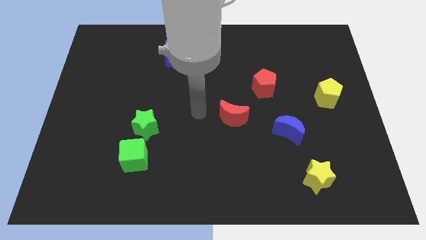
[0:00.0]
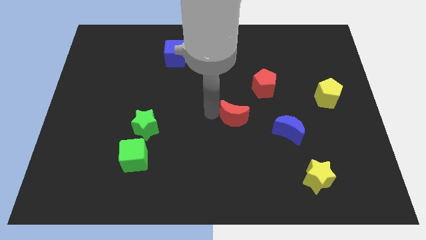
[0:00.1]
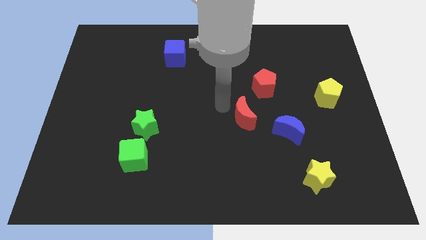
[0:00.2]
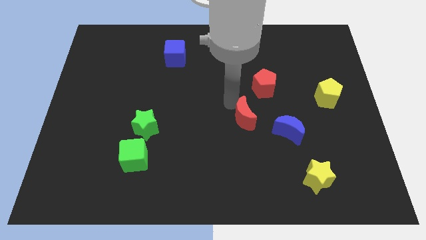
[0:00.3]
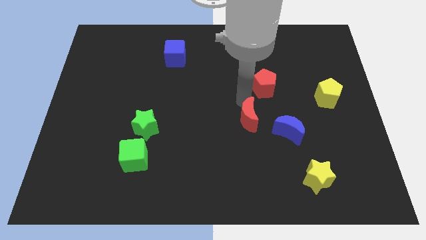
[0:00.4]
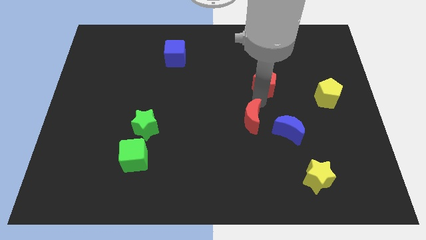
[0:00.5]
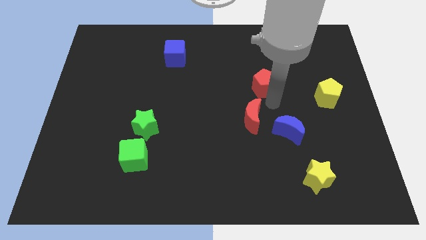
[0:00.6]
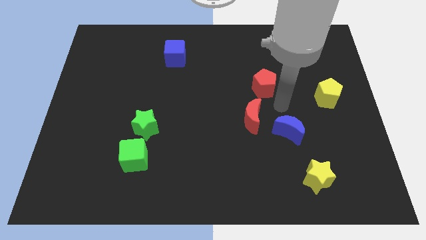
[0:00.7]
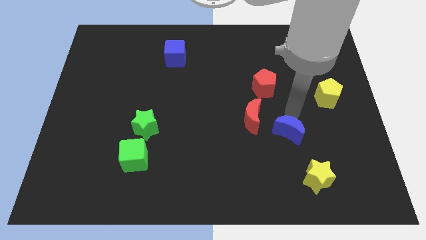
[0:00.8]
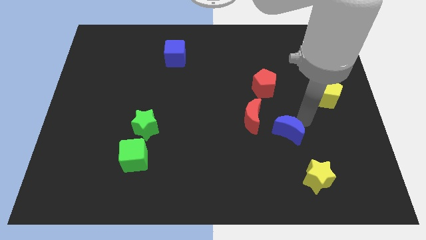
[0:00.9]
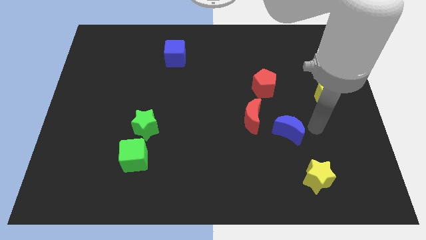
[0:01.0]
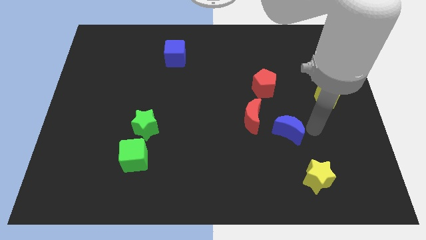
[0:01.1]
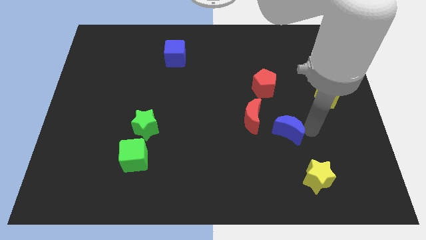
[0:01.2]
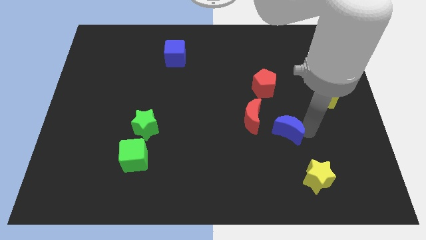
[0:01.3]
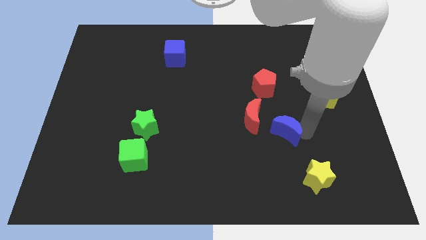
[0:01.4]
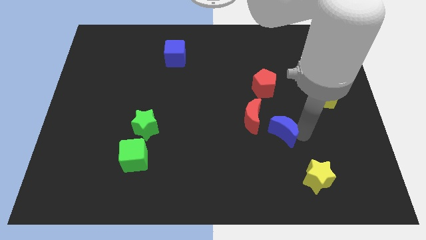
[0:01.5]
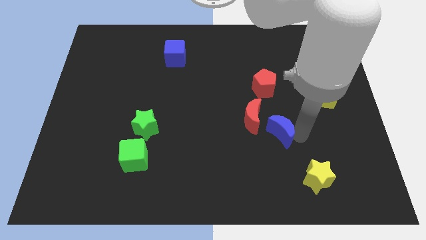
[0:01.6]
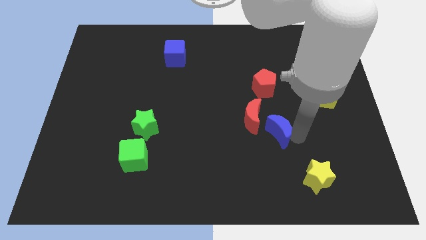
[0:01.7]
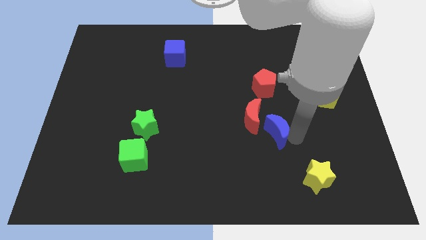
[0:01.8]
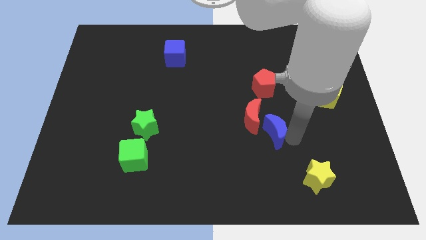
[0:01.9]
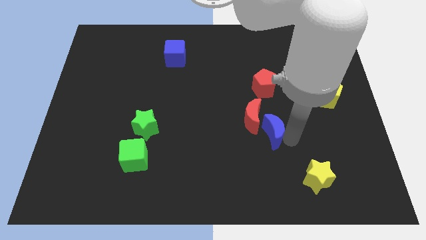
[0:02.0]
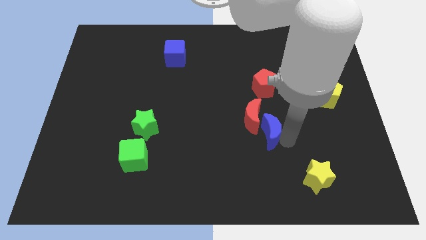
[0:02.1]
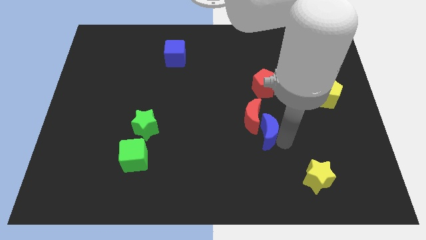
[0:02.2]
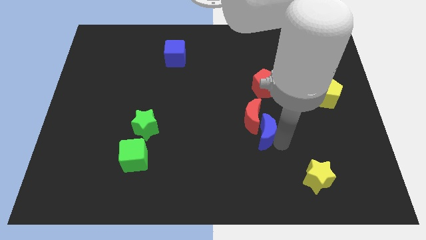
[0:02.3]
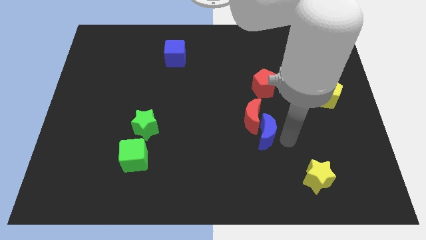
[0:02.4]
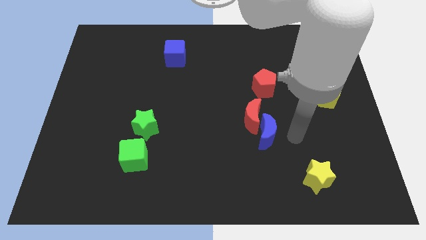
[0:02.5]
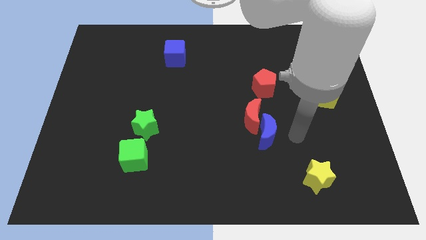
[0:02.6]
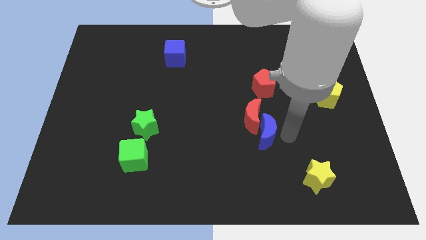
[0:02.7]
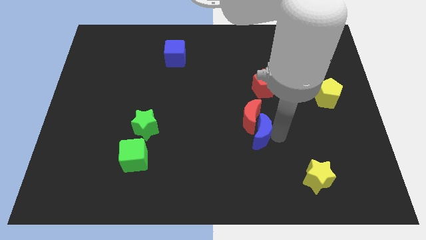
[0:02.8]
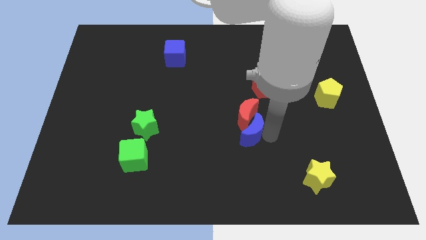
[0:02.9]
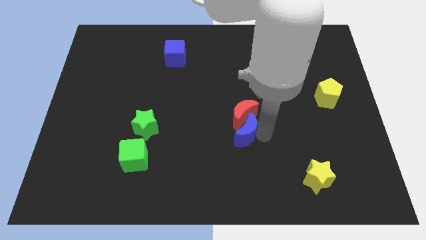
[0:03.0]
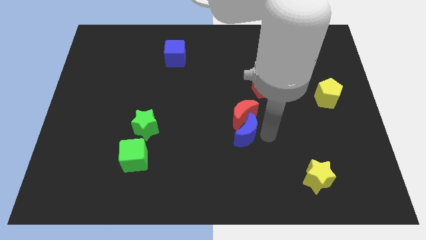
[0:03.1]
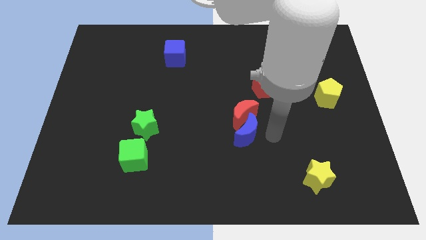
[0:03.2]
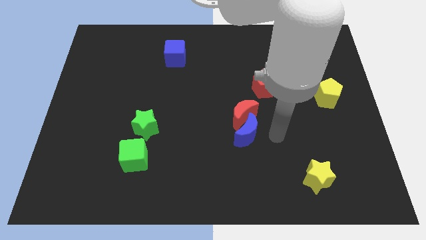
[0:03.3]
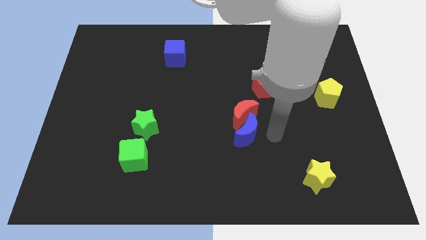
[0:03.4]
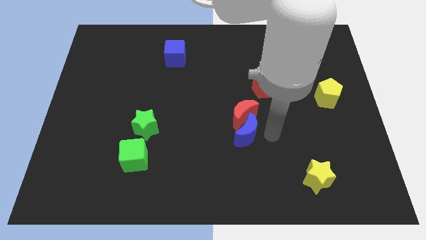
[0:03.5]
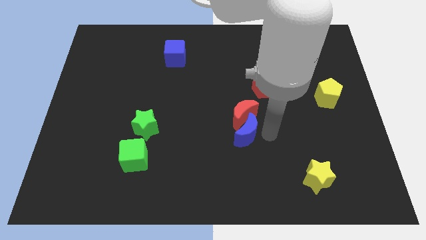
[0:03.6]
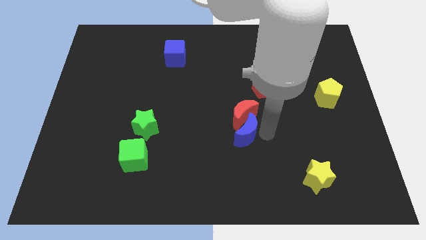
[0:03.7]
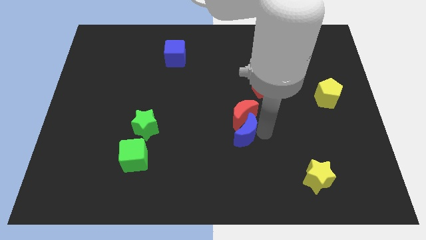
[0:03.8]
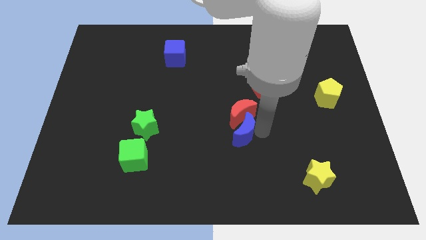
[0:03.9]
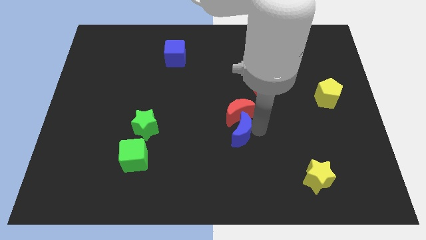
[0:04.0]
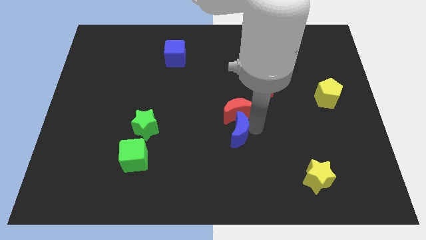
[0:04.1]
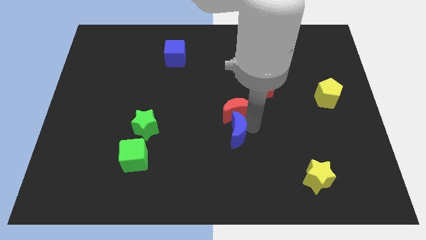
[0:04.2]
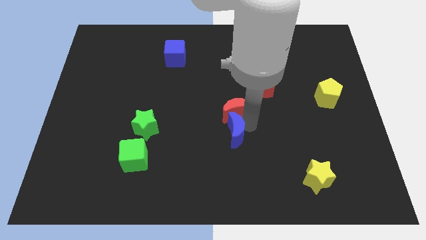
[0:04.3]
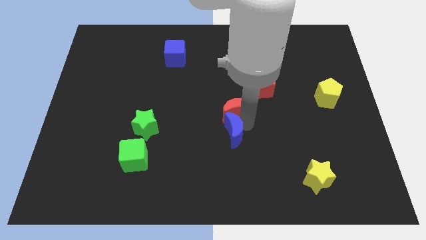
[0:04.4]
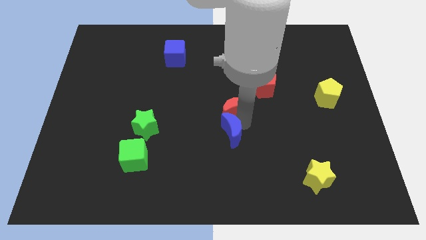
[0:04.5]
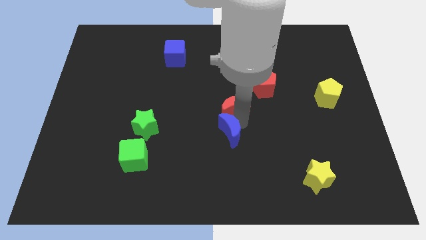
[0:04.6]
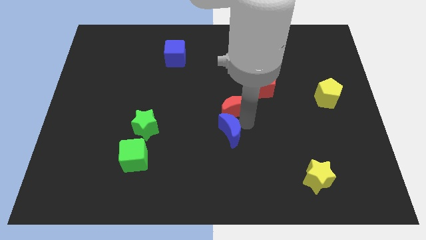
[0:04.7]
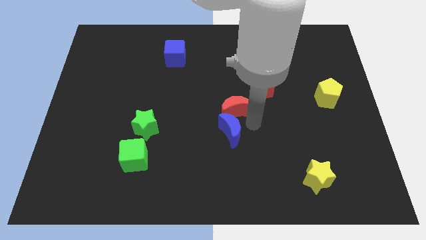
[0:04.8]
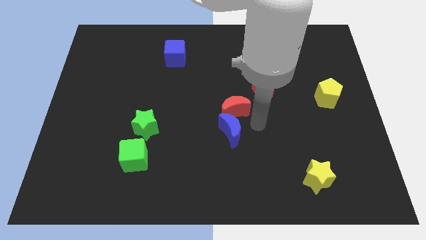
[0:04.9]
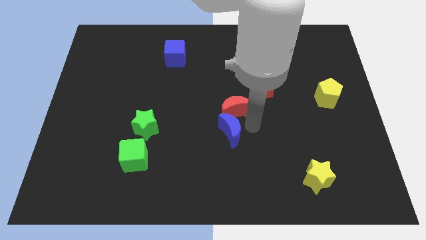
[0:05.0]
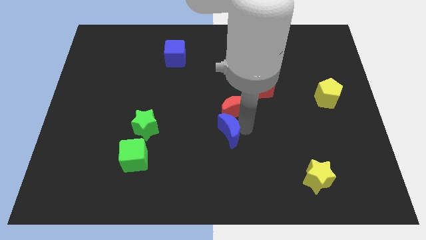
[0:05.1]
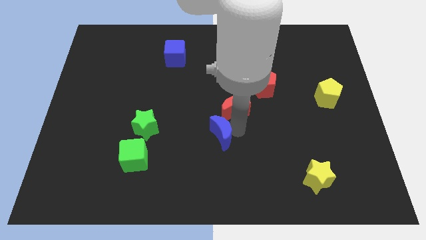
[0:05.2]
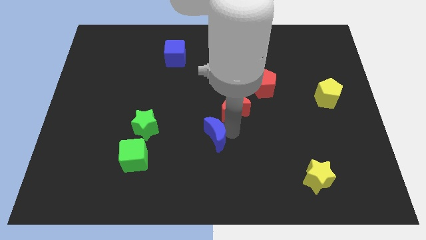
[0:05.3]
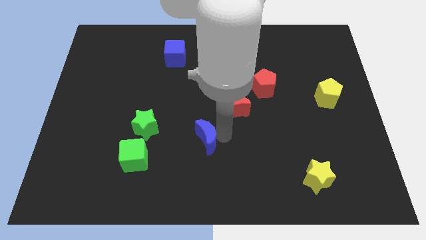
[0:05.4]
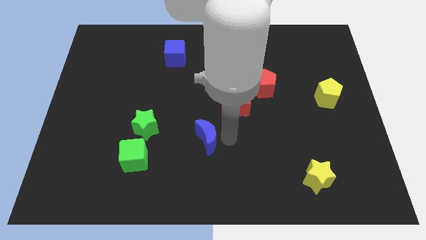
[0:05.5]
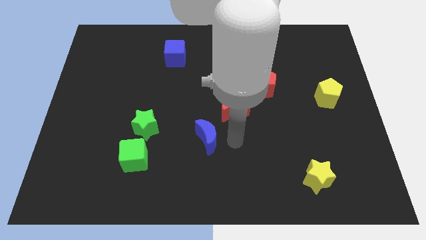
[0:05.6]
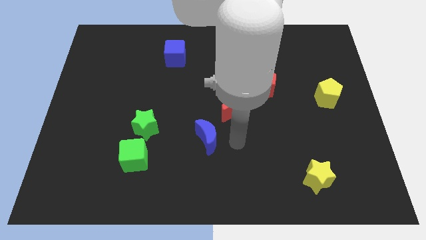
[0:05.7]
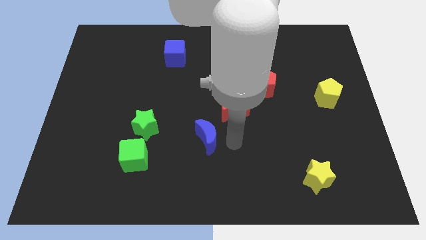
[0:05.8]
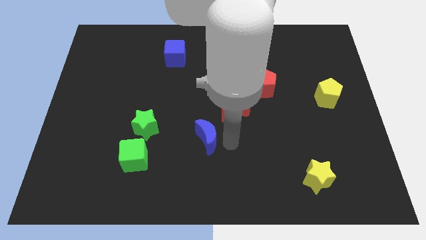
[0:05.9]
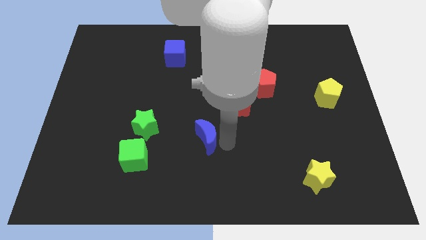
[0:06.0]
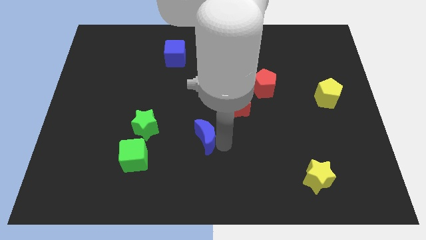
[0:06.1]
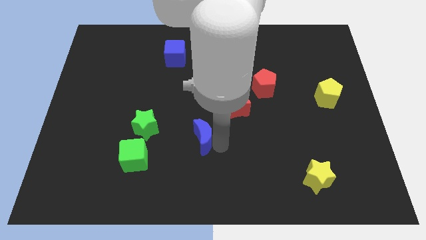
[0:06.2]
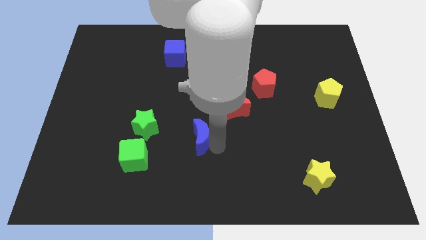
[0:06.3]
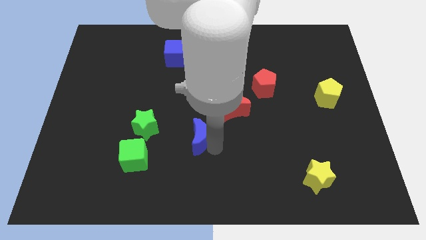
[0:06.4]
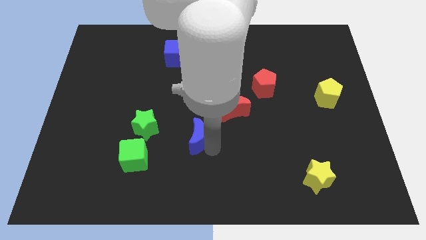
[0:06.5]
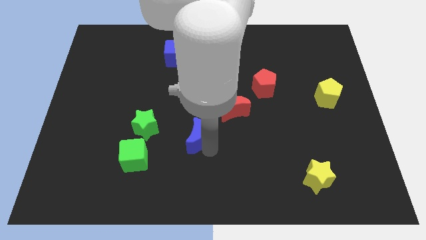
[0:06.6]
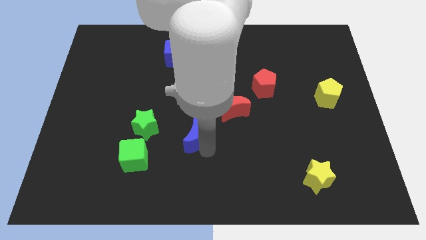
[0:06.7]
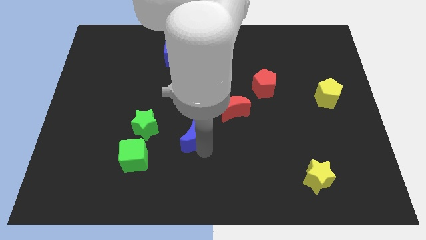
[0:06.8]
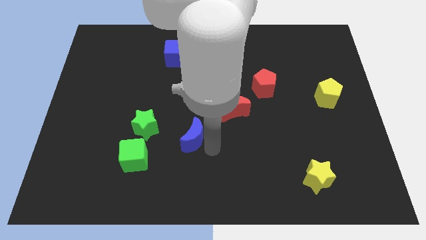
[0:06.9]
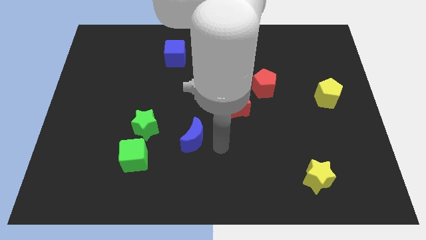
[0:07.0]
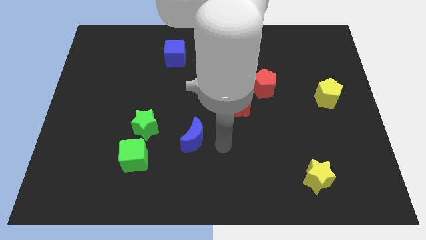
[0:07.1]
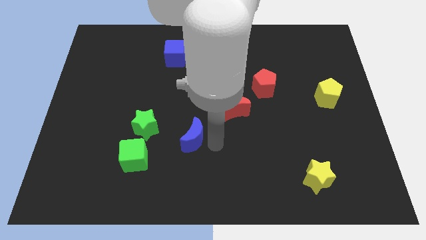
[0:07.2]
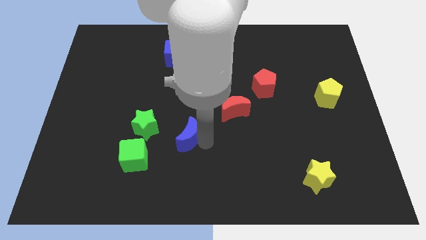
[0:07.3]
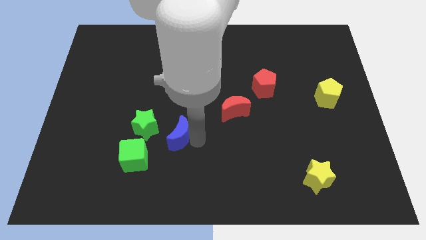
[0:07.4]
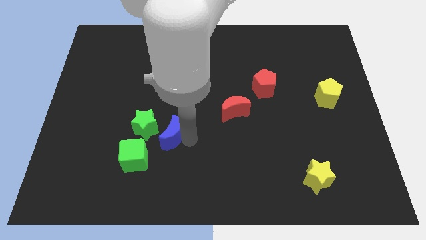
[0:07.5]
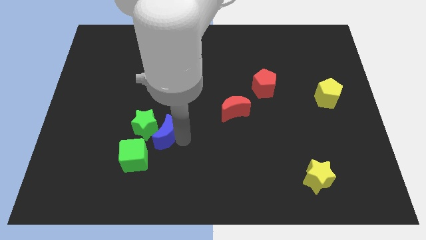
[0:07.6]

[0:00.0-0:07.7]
push the blue moon close to the green star

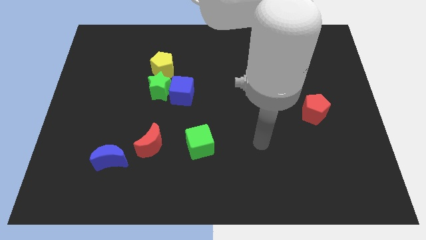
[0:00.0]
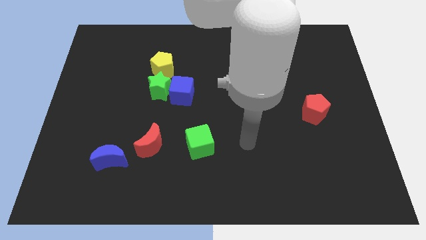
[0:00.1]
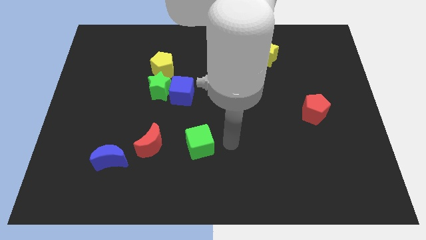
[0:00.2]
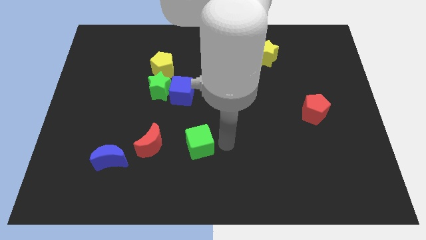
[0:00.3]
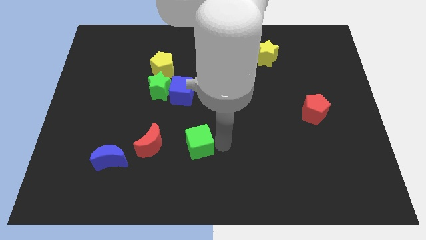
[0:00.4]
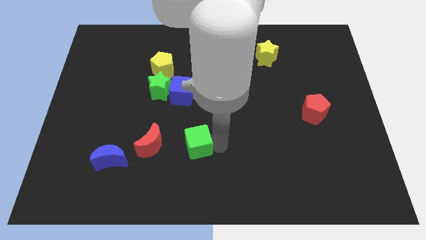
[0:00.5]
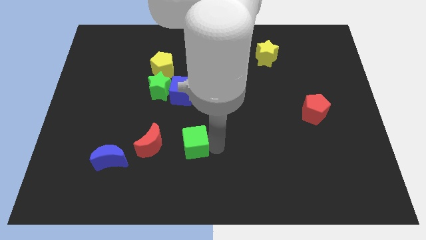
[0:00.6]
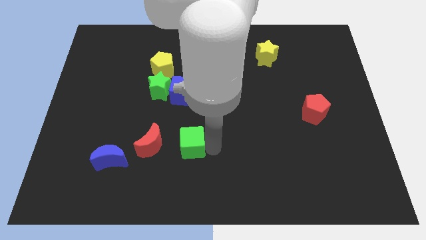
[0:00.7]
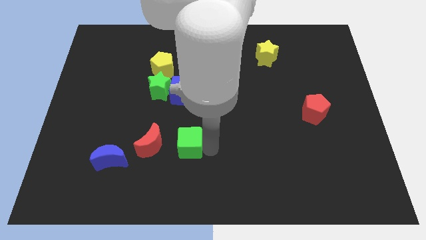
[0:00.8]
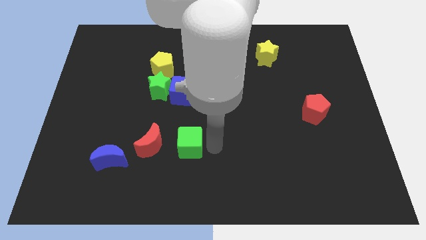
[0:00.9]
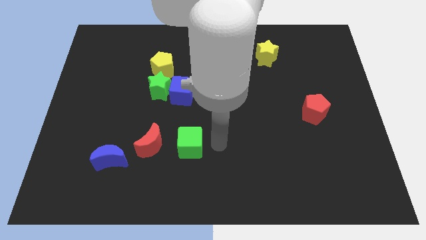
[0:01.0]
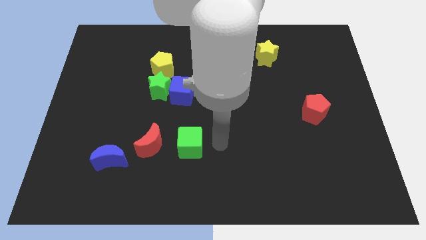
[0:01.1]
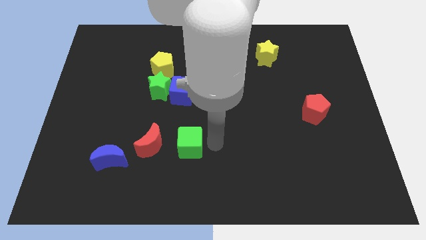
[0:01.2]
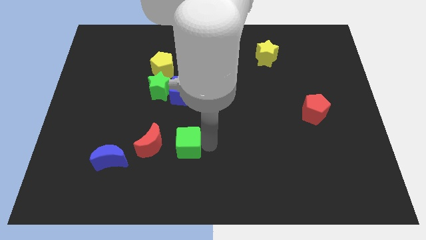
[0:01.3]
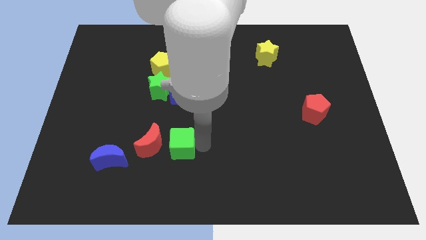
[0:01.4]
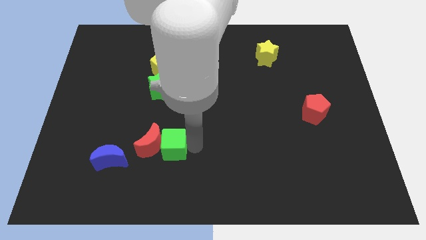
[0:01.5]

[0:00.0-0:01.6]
move the green cube towards the red moon
